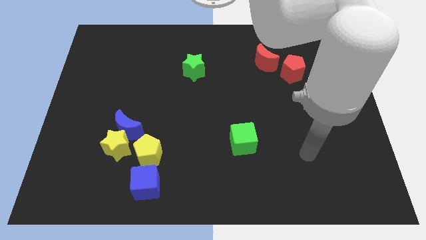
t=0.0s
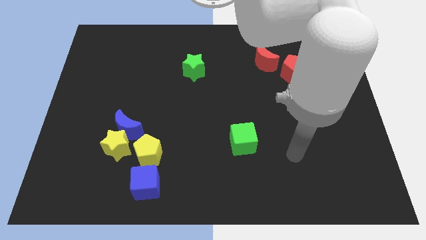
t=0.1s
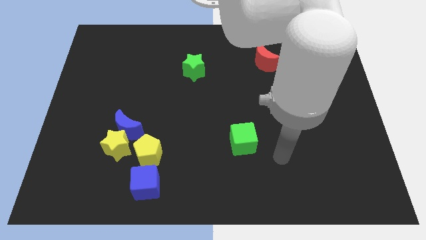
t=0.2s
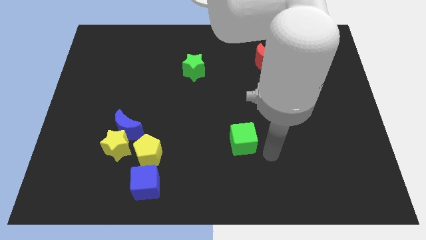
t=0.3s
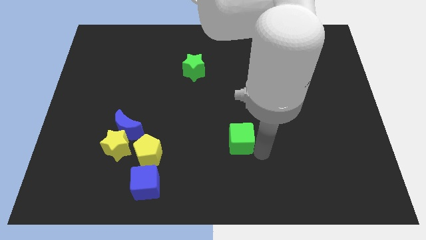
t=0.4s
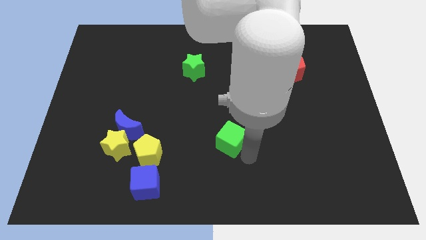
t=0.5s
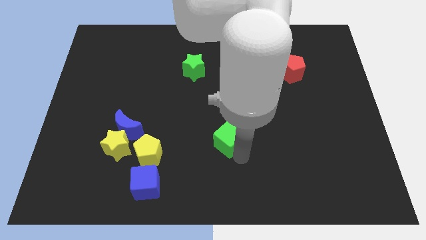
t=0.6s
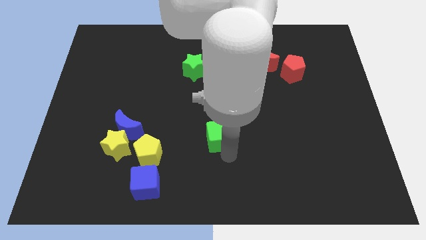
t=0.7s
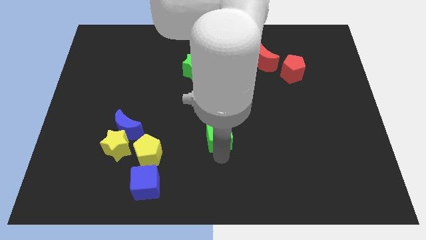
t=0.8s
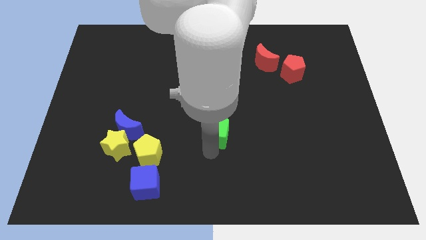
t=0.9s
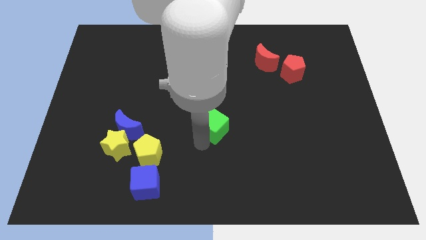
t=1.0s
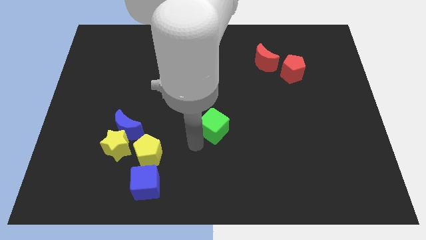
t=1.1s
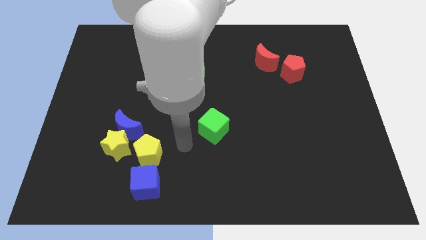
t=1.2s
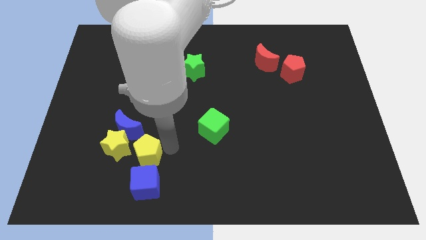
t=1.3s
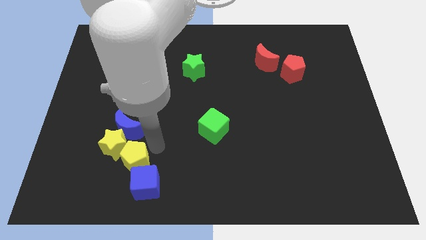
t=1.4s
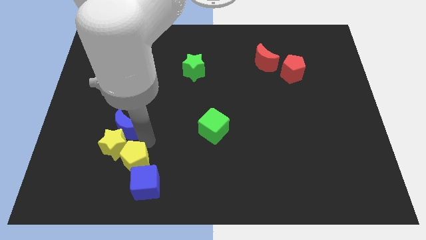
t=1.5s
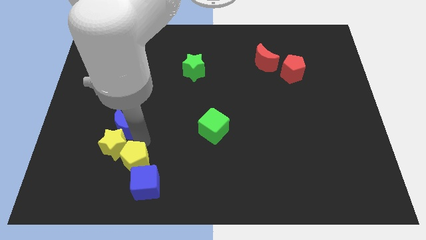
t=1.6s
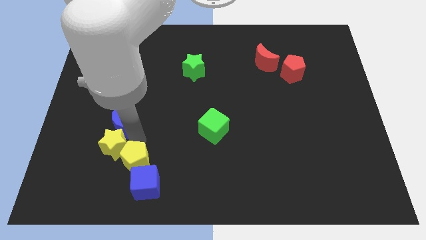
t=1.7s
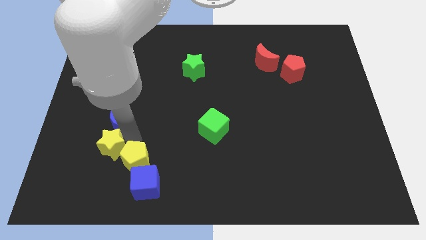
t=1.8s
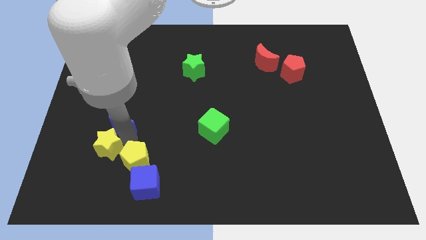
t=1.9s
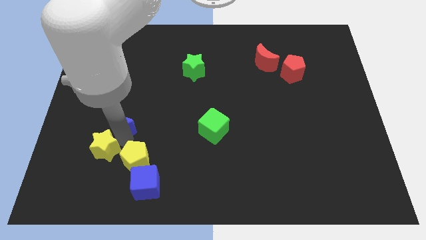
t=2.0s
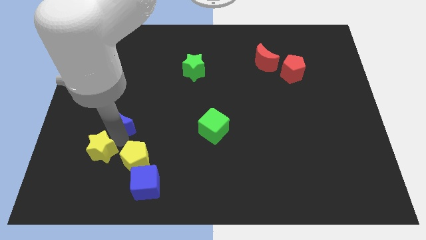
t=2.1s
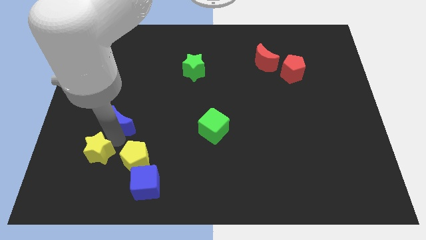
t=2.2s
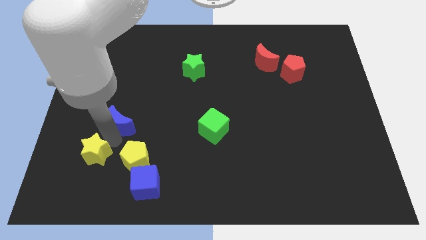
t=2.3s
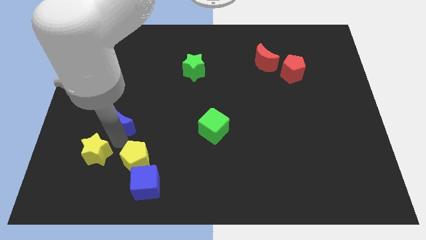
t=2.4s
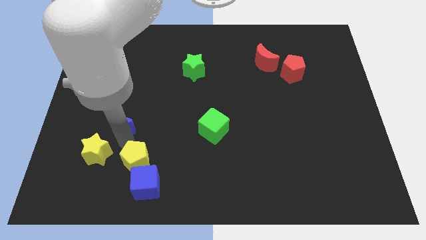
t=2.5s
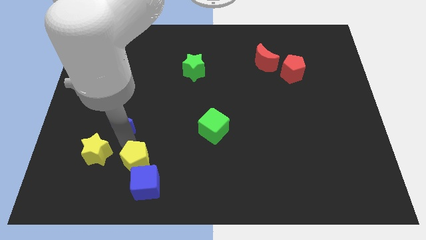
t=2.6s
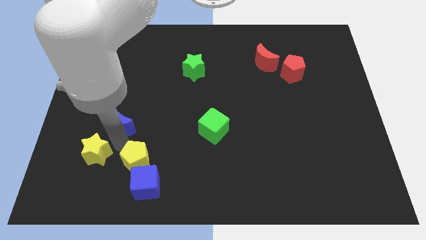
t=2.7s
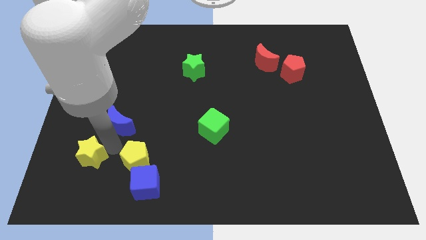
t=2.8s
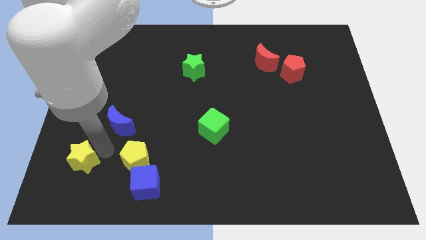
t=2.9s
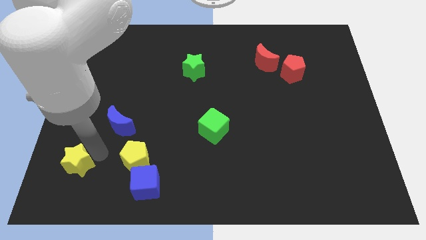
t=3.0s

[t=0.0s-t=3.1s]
pull the yellow star apart from the blue moon and yellow pentagon

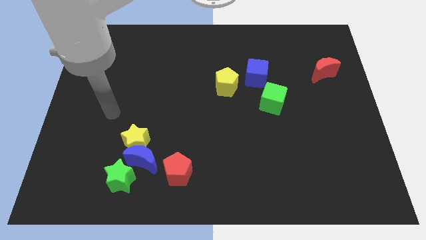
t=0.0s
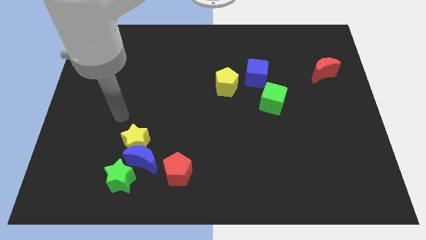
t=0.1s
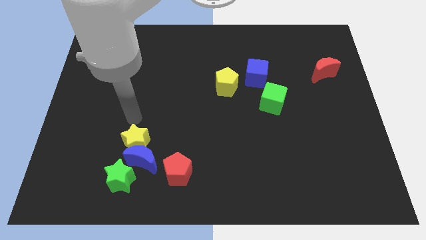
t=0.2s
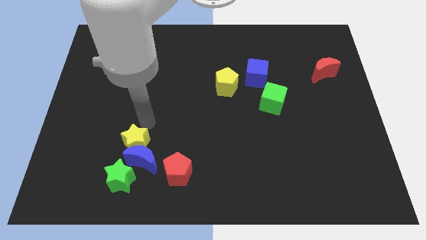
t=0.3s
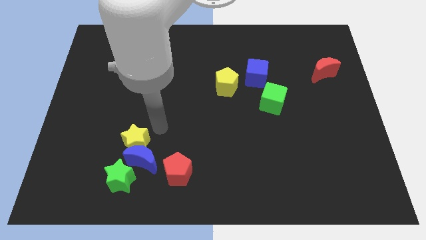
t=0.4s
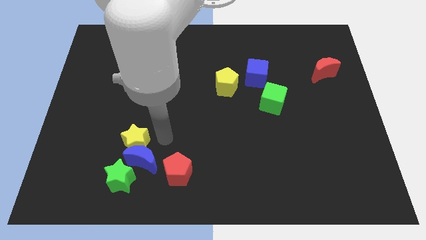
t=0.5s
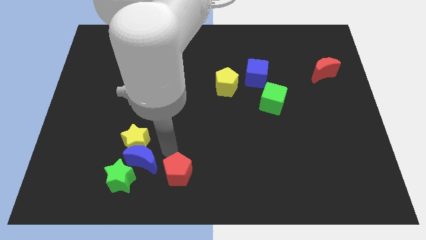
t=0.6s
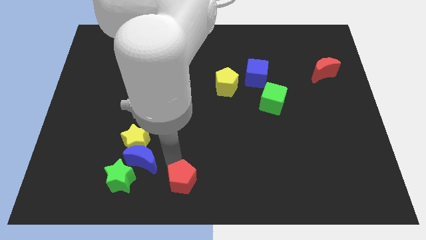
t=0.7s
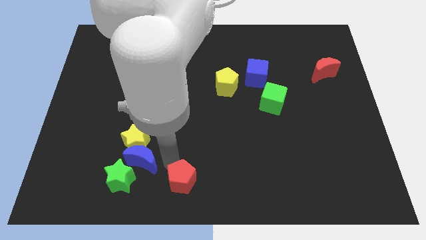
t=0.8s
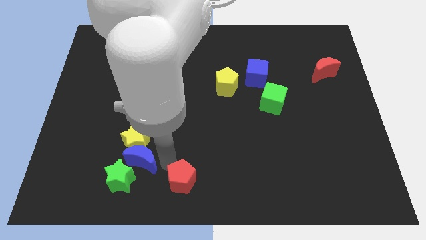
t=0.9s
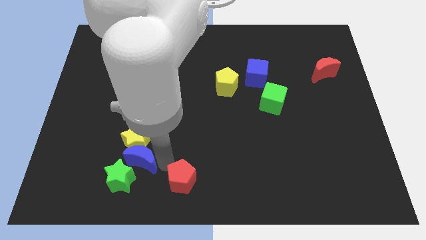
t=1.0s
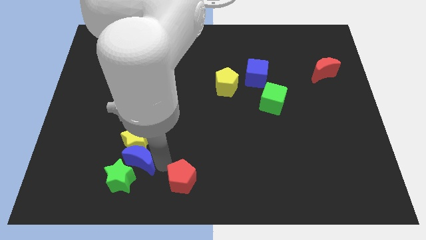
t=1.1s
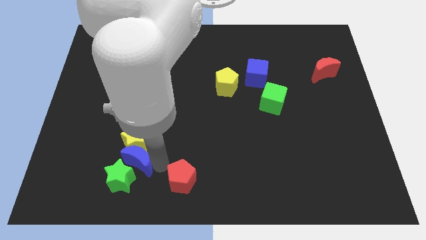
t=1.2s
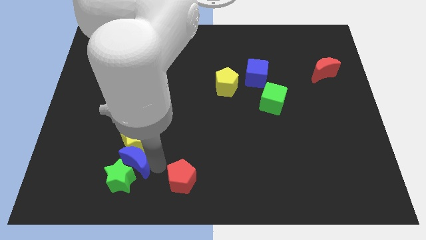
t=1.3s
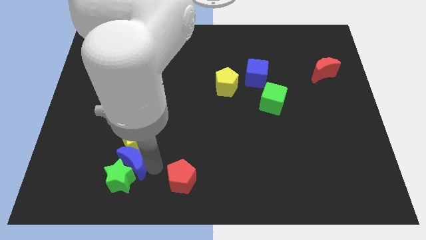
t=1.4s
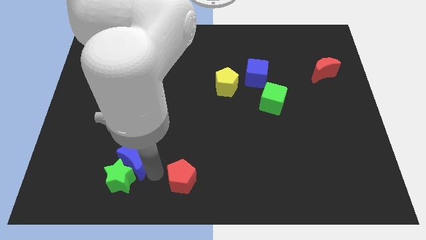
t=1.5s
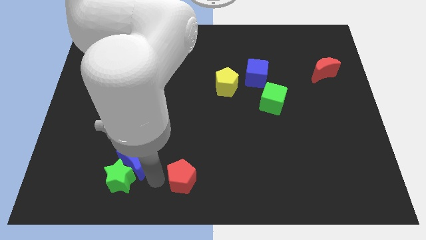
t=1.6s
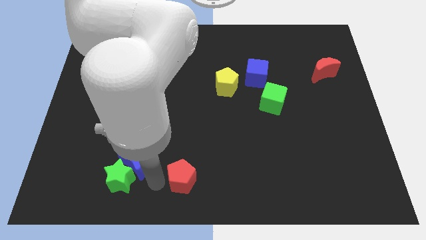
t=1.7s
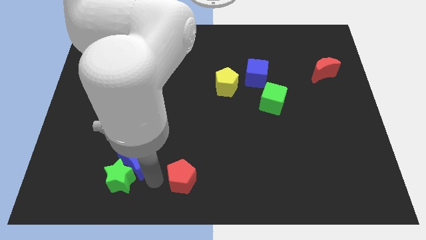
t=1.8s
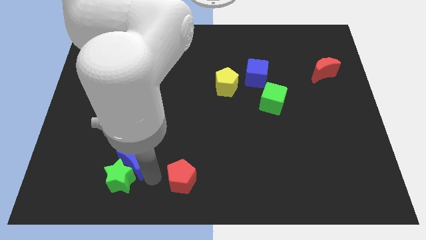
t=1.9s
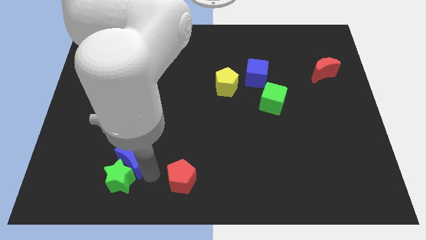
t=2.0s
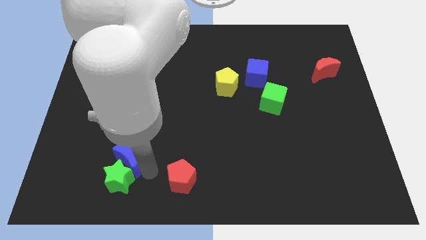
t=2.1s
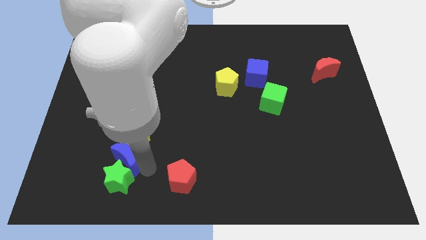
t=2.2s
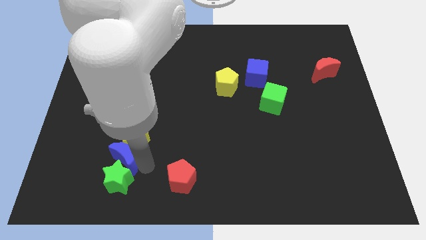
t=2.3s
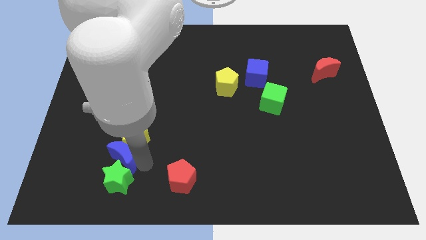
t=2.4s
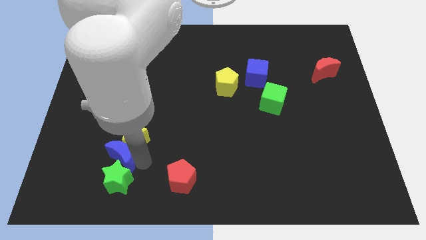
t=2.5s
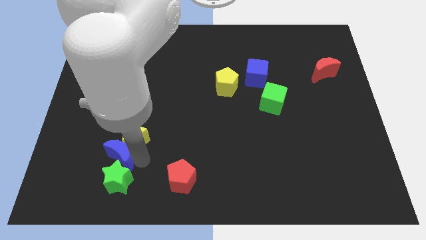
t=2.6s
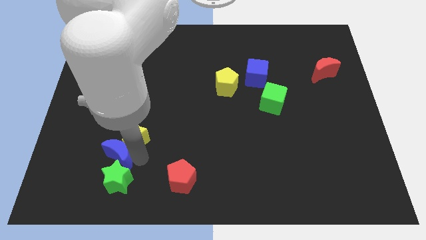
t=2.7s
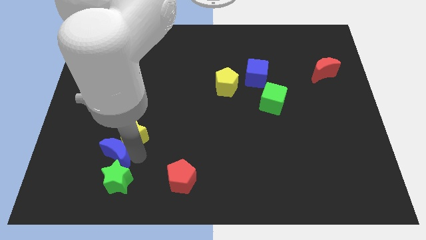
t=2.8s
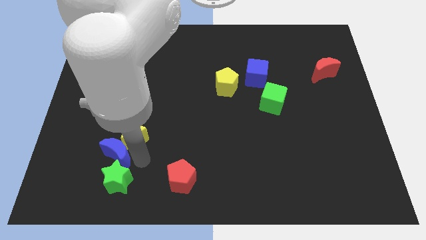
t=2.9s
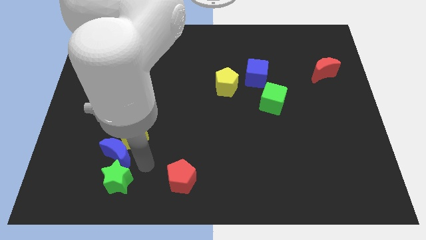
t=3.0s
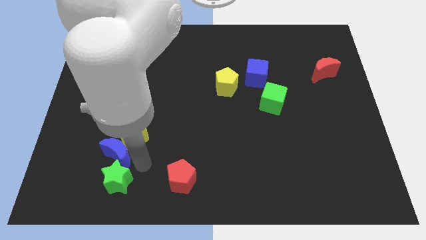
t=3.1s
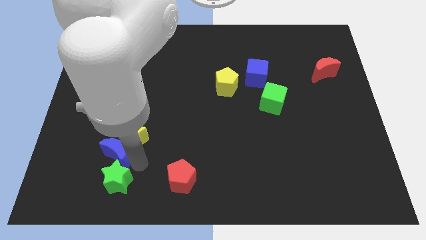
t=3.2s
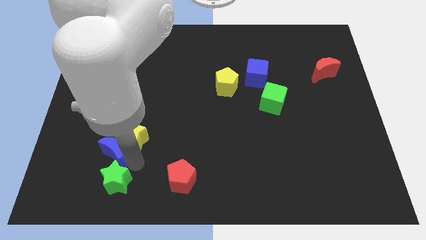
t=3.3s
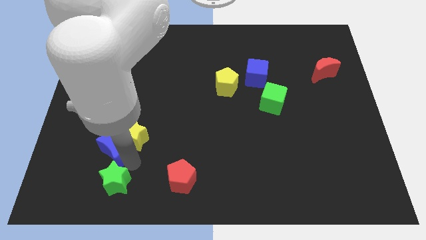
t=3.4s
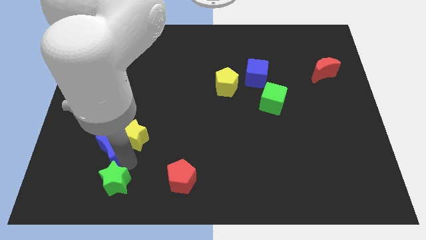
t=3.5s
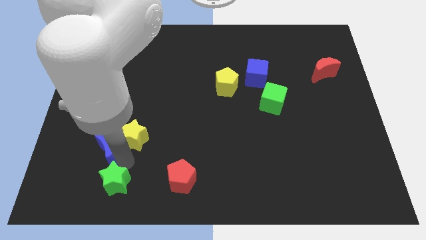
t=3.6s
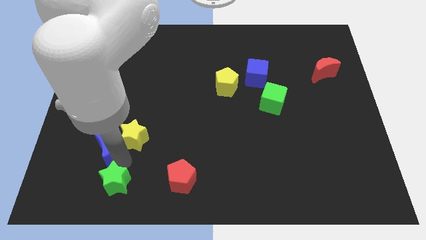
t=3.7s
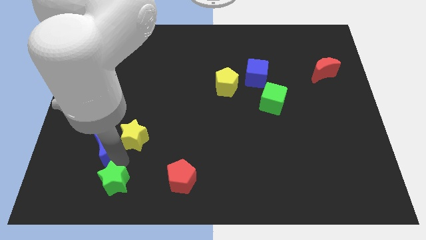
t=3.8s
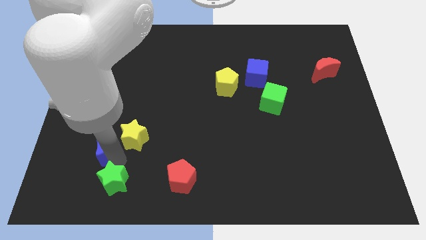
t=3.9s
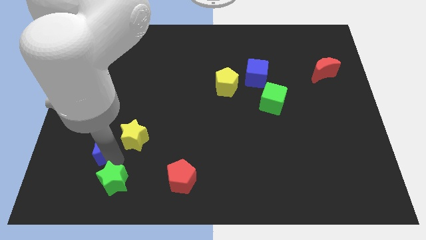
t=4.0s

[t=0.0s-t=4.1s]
move the blue moon away from the yellow star, green star, and red pentagon

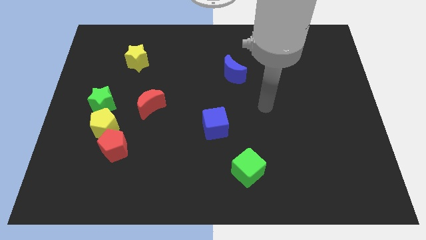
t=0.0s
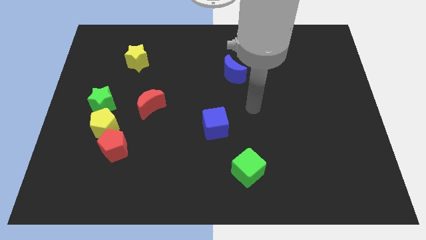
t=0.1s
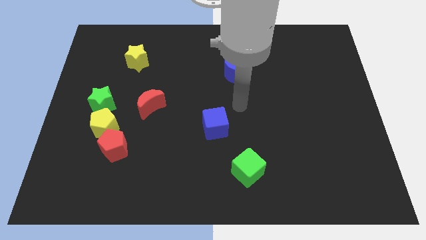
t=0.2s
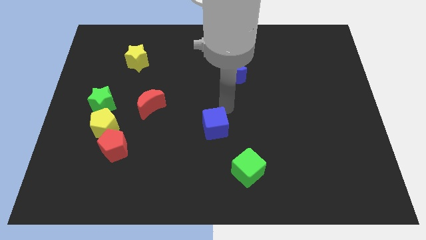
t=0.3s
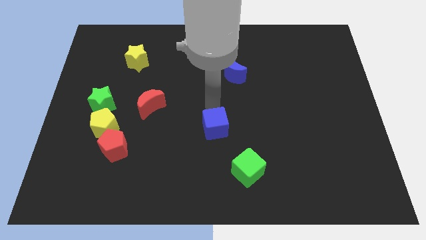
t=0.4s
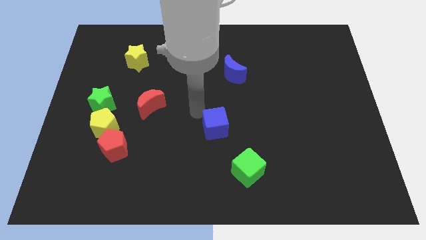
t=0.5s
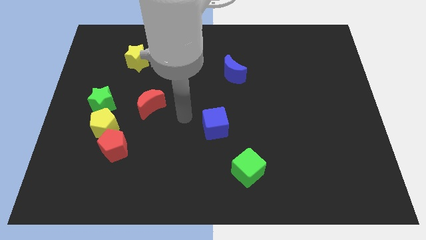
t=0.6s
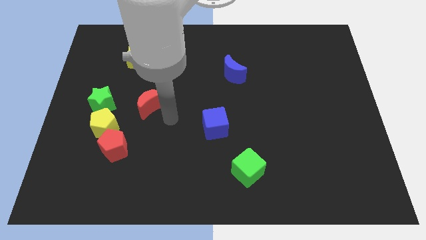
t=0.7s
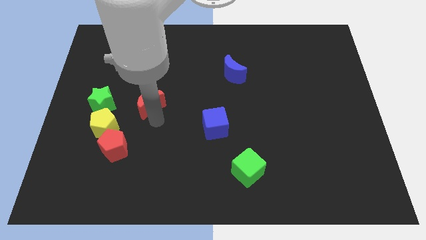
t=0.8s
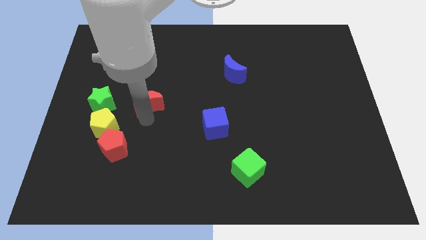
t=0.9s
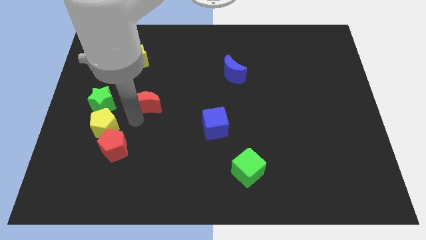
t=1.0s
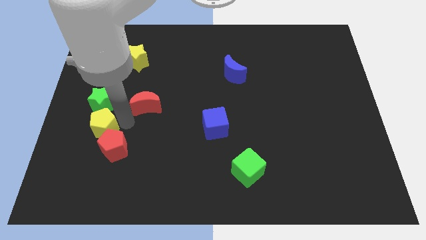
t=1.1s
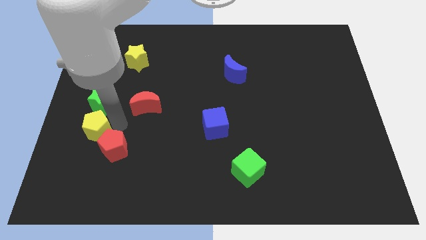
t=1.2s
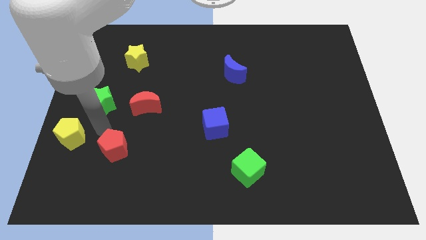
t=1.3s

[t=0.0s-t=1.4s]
separate the red pentagon from the yellow pentagon

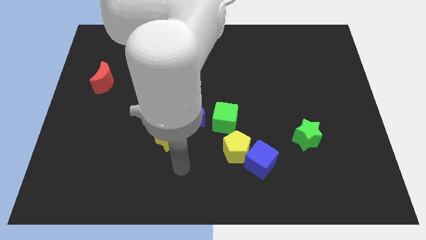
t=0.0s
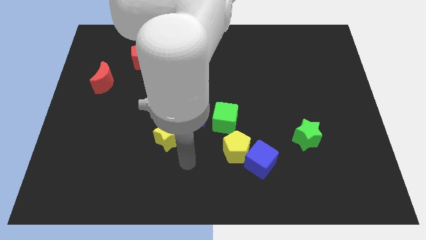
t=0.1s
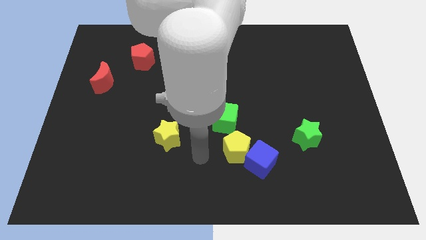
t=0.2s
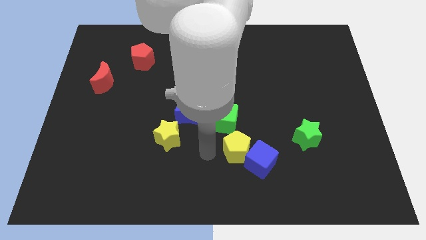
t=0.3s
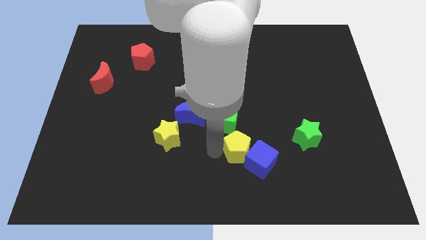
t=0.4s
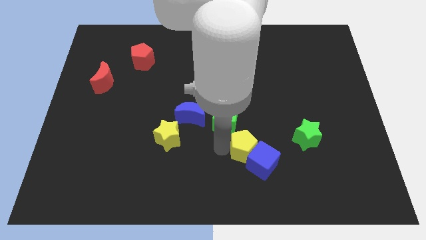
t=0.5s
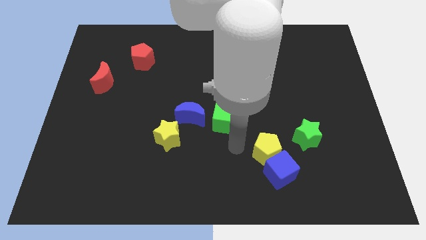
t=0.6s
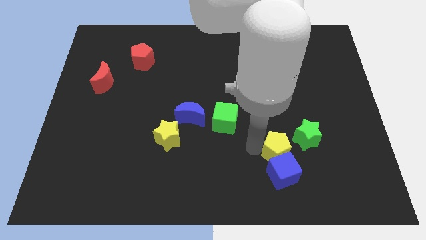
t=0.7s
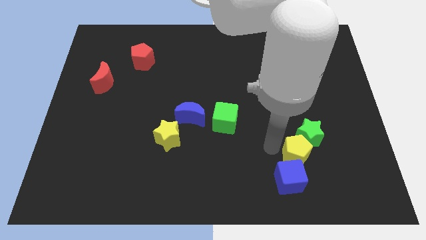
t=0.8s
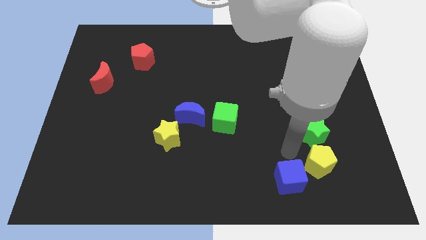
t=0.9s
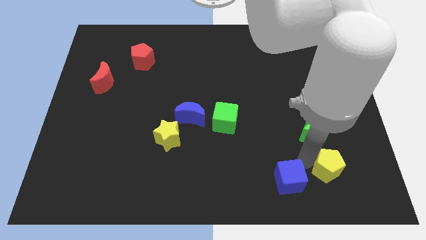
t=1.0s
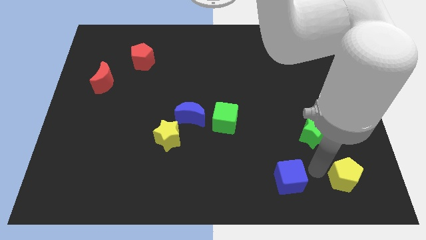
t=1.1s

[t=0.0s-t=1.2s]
pull the blue cube apart from the yellow pentagon
